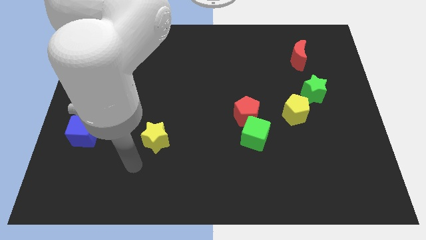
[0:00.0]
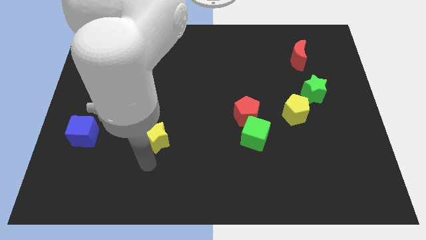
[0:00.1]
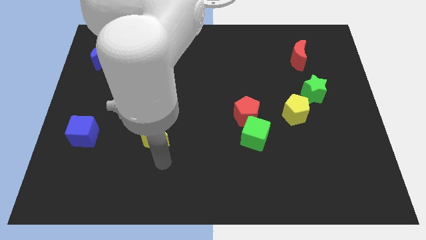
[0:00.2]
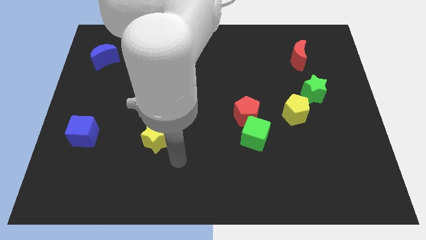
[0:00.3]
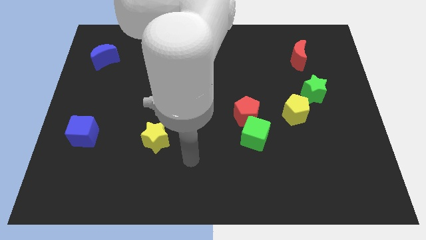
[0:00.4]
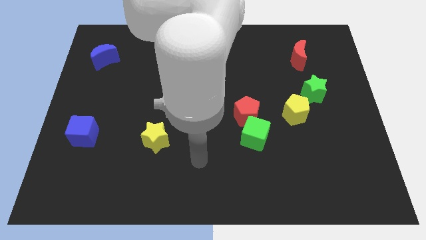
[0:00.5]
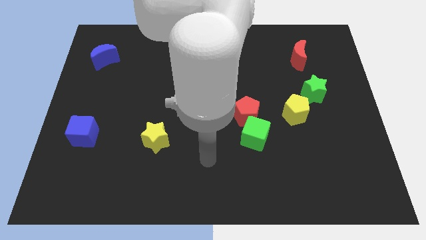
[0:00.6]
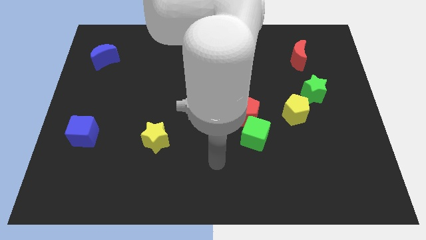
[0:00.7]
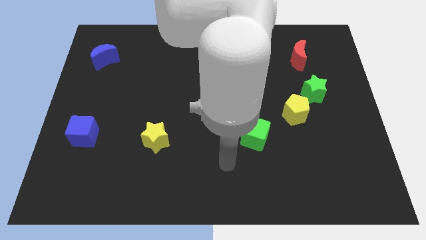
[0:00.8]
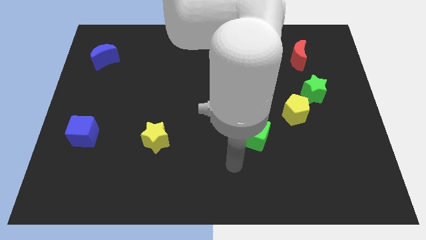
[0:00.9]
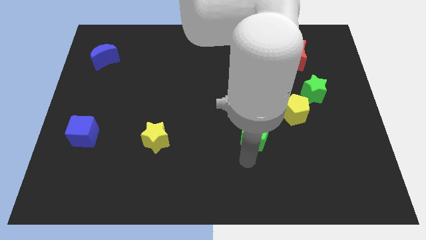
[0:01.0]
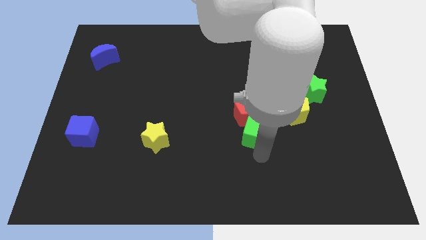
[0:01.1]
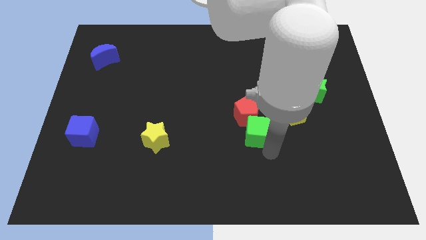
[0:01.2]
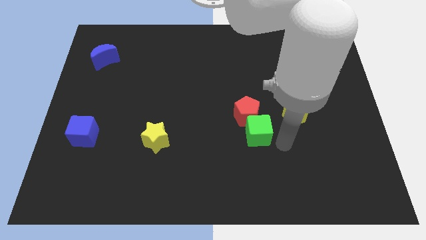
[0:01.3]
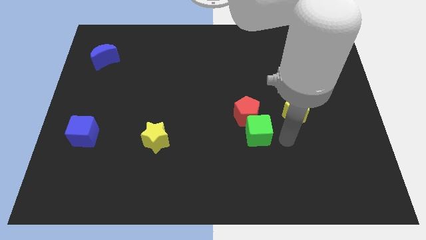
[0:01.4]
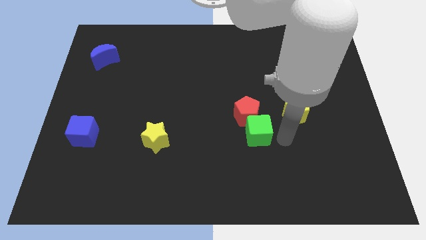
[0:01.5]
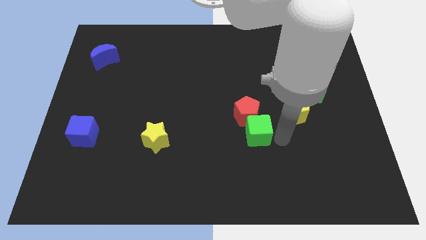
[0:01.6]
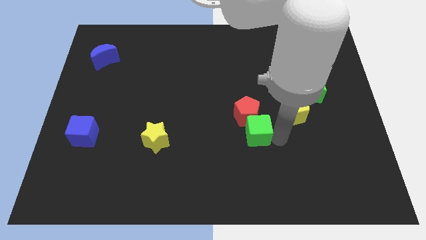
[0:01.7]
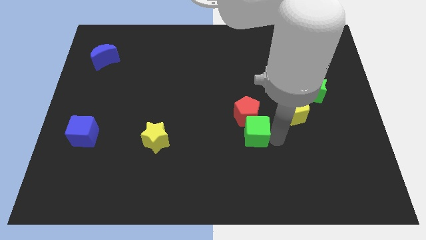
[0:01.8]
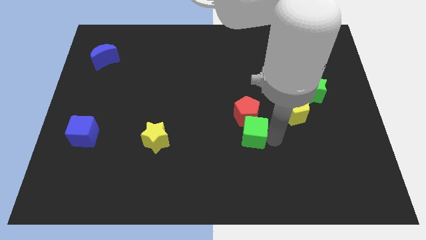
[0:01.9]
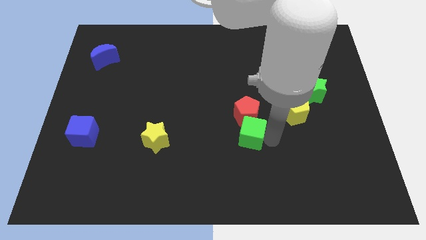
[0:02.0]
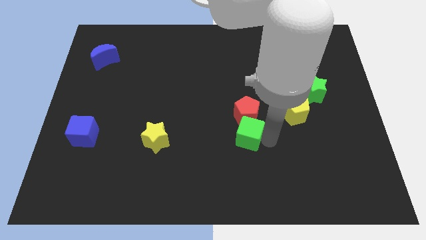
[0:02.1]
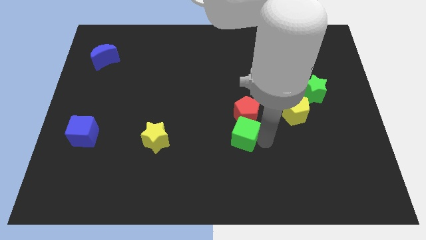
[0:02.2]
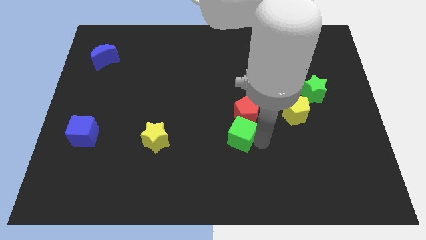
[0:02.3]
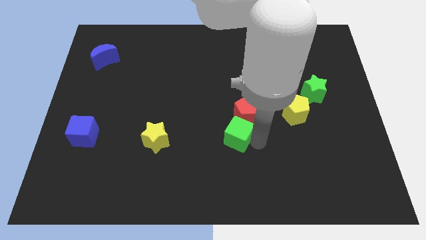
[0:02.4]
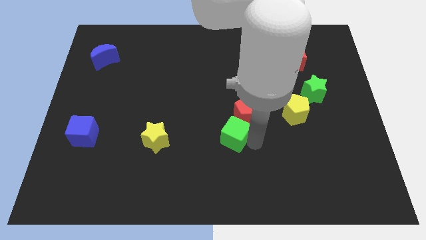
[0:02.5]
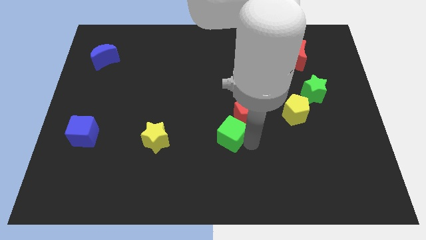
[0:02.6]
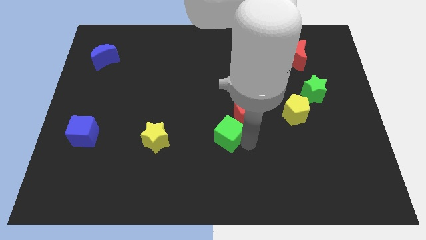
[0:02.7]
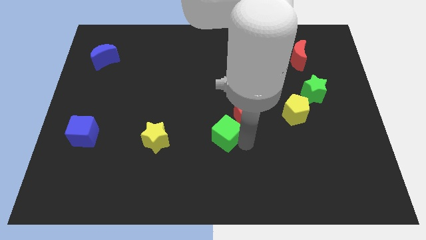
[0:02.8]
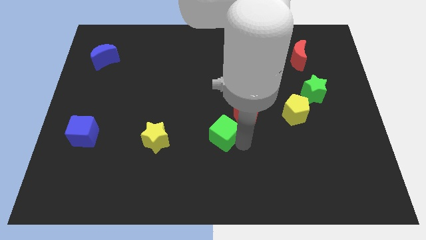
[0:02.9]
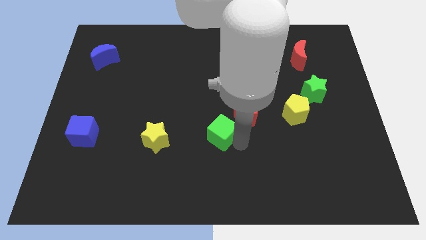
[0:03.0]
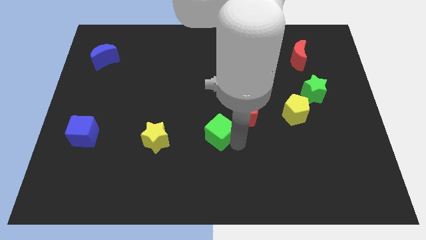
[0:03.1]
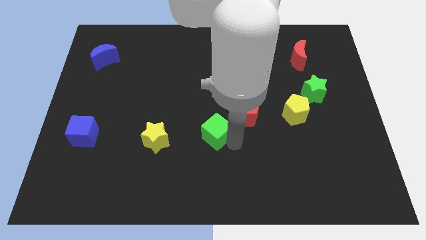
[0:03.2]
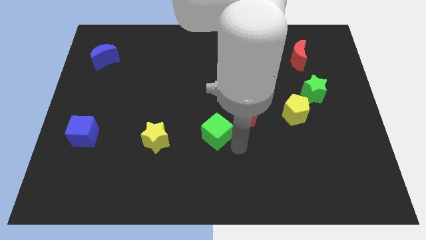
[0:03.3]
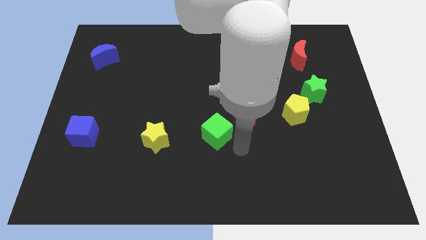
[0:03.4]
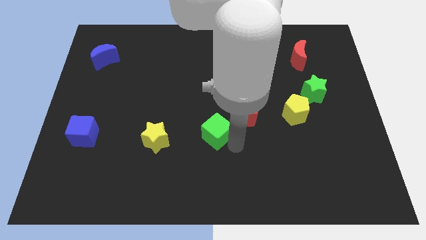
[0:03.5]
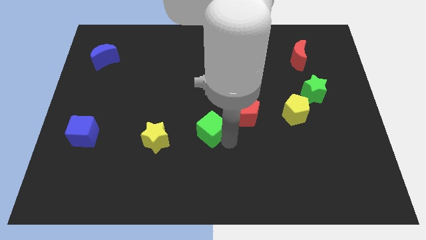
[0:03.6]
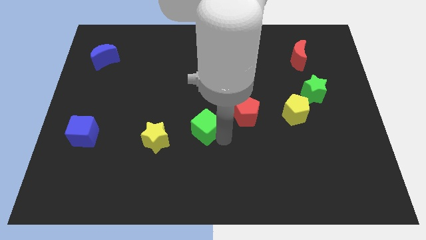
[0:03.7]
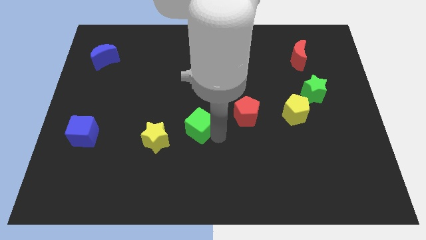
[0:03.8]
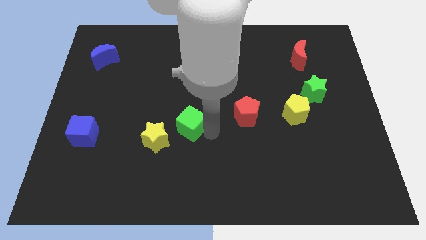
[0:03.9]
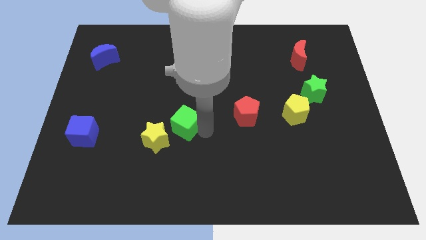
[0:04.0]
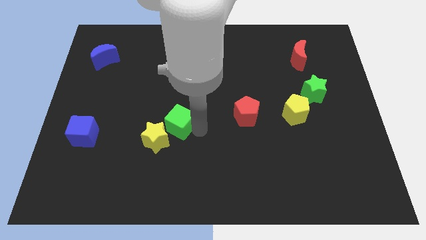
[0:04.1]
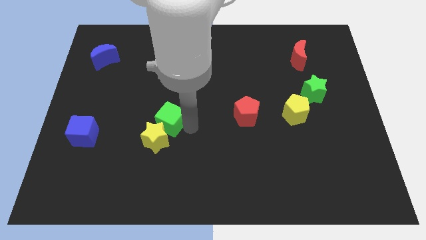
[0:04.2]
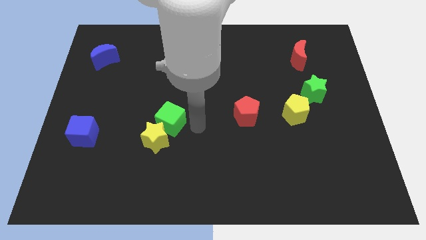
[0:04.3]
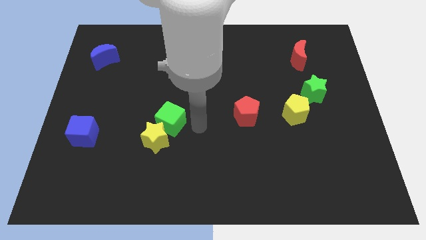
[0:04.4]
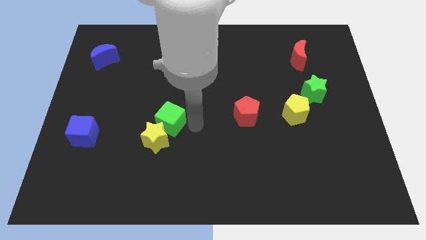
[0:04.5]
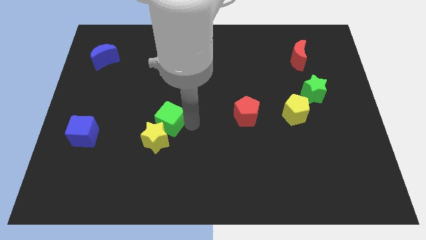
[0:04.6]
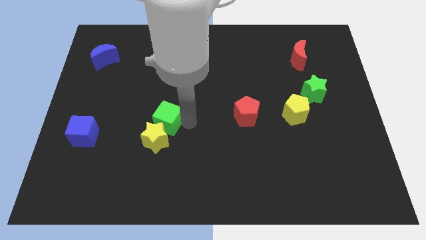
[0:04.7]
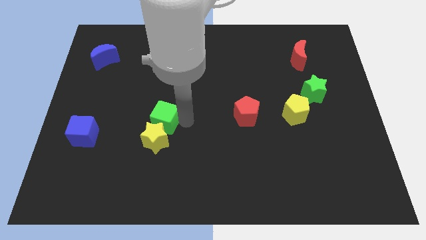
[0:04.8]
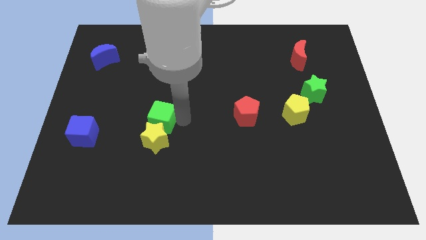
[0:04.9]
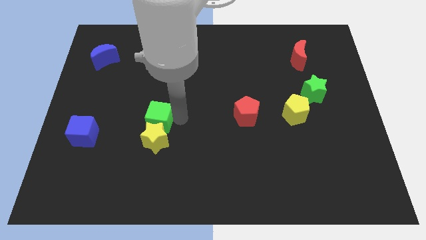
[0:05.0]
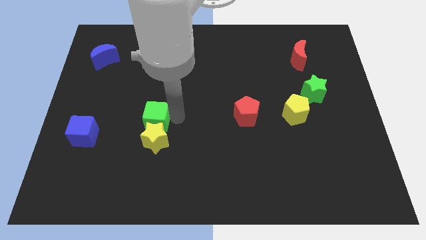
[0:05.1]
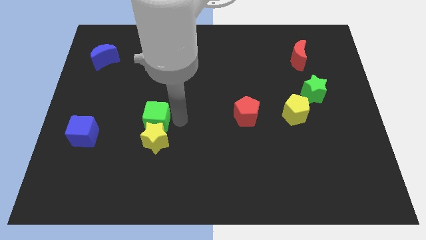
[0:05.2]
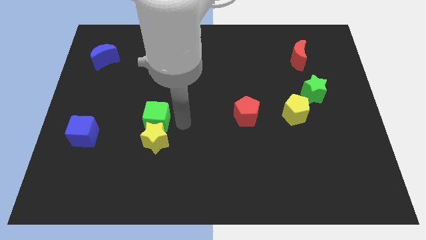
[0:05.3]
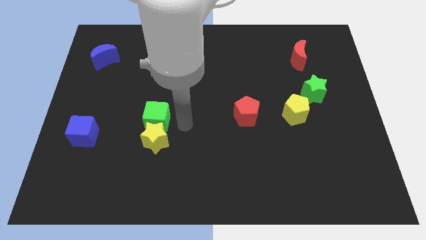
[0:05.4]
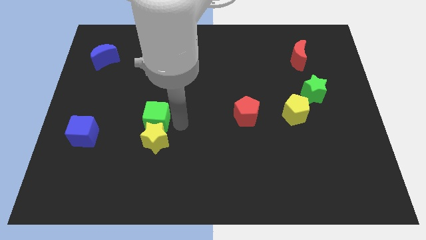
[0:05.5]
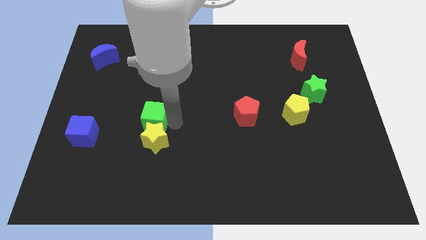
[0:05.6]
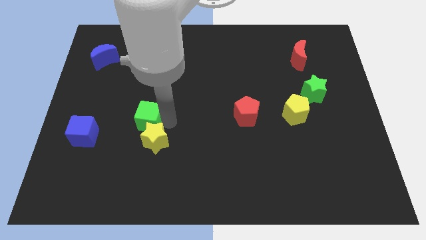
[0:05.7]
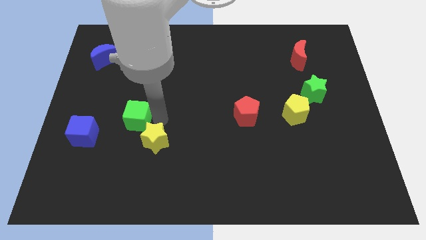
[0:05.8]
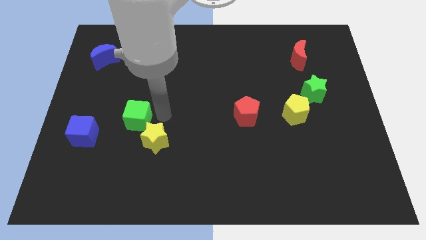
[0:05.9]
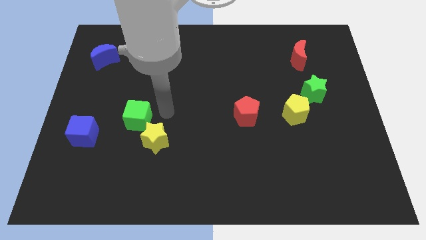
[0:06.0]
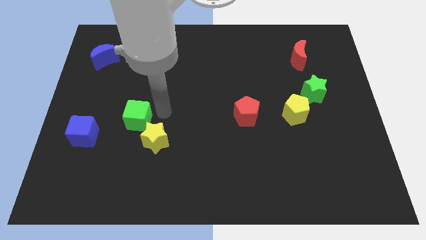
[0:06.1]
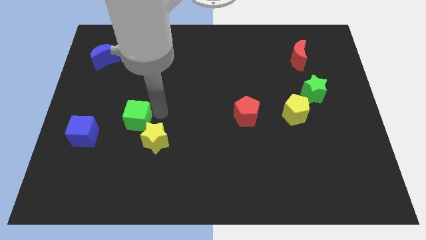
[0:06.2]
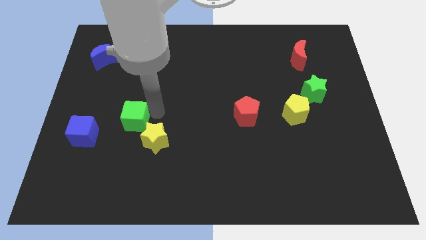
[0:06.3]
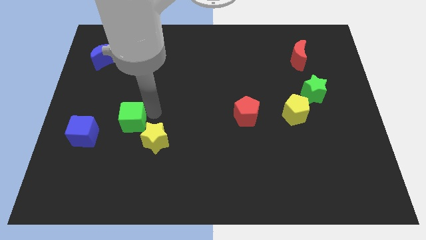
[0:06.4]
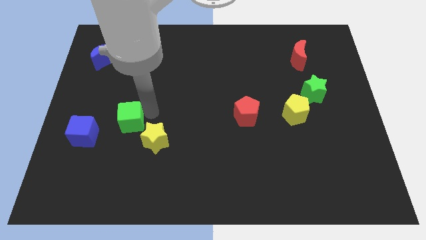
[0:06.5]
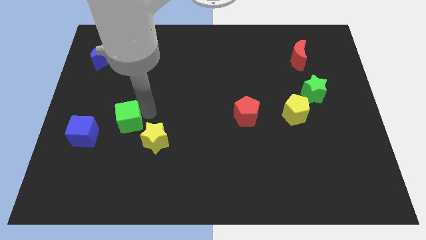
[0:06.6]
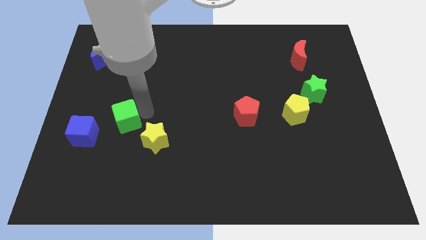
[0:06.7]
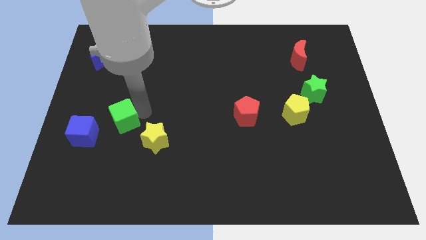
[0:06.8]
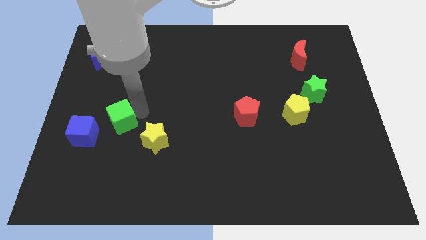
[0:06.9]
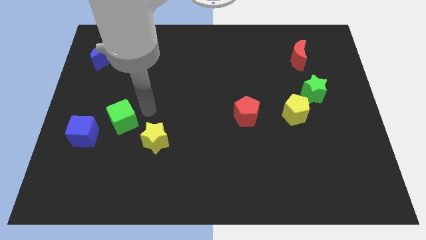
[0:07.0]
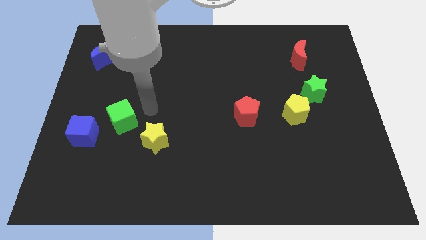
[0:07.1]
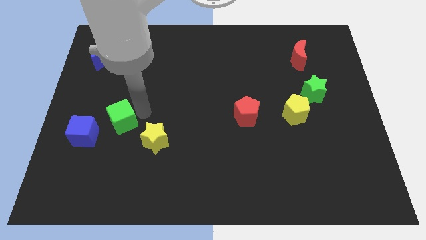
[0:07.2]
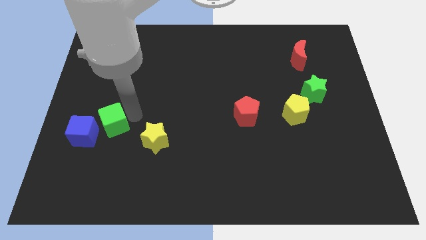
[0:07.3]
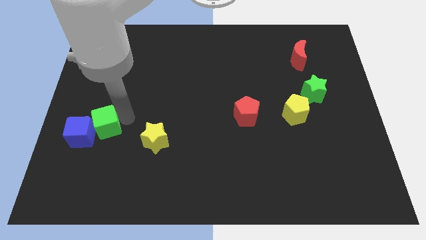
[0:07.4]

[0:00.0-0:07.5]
put the green cube next to the blue cube
